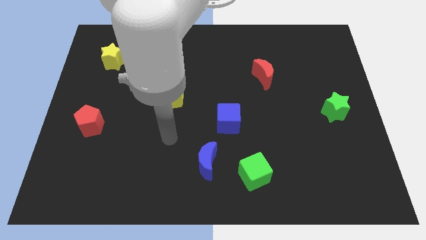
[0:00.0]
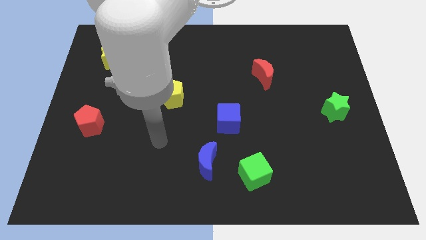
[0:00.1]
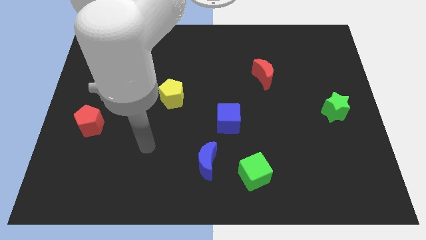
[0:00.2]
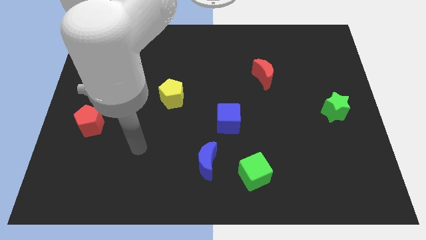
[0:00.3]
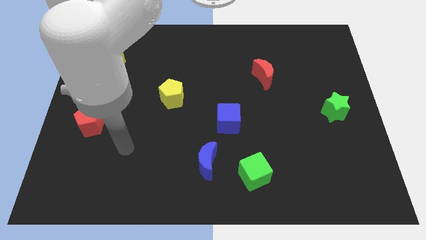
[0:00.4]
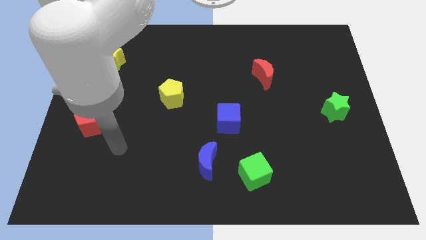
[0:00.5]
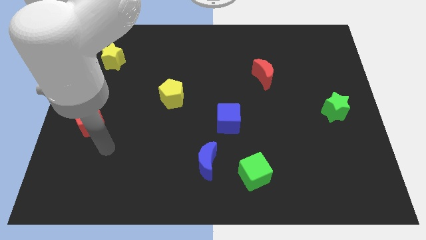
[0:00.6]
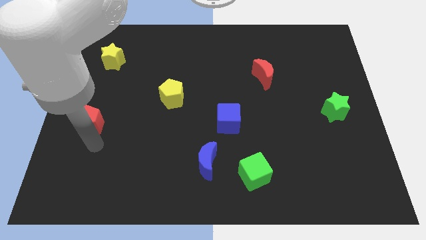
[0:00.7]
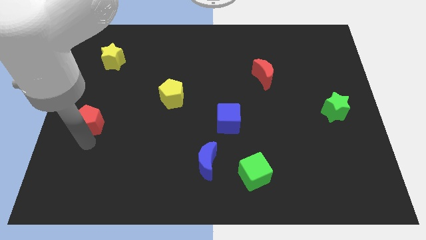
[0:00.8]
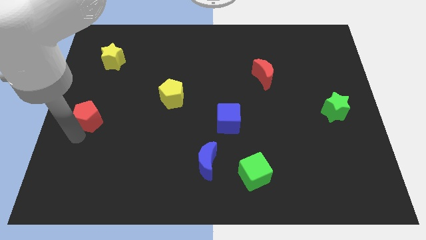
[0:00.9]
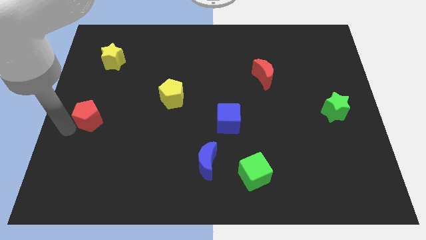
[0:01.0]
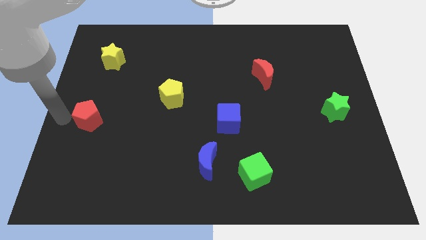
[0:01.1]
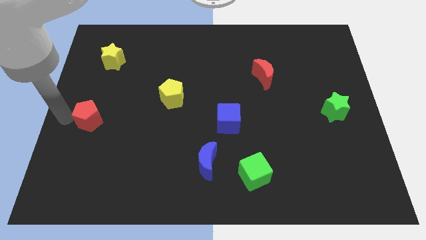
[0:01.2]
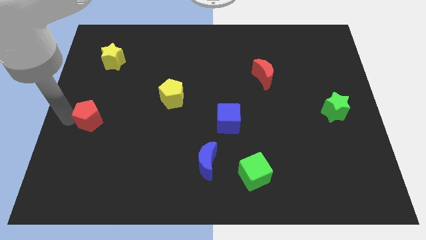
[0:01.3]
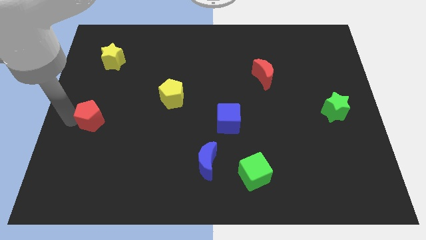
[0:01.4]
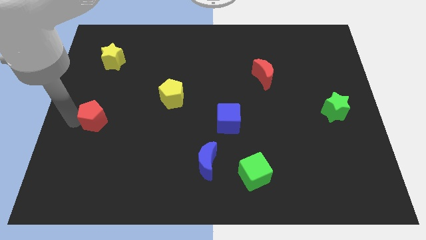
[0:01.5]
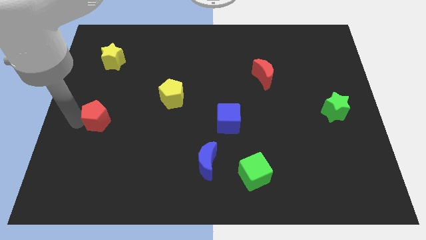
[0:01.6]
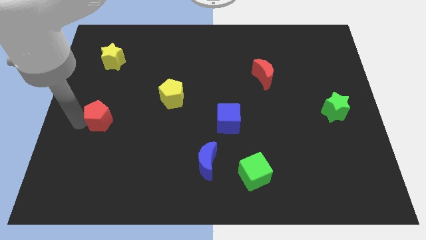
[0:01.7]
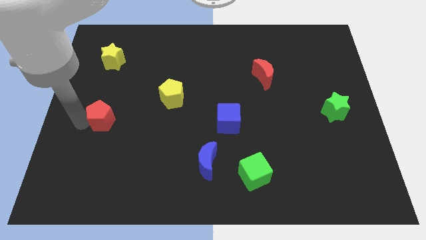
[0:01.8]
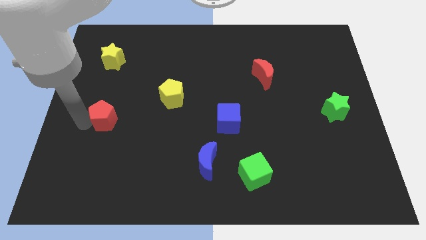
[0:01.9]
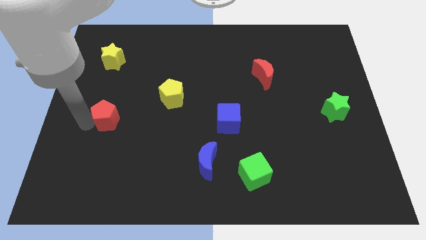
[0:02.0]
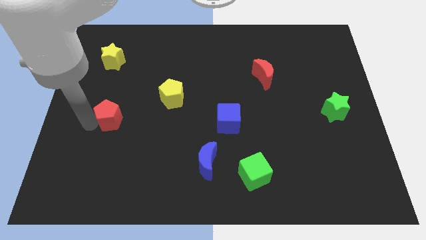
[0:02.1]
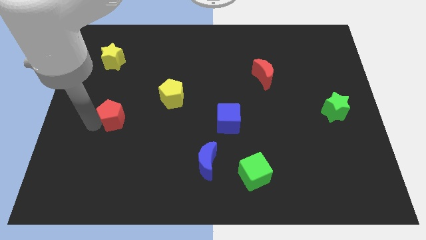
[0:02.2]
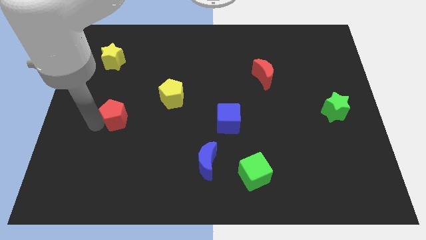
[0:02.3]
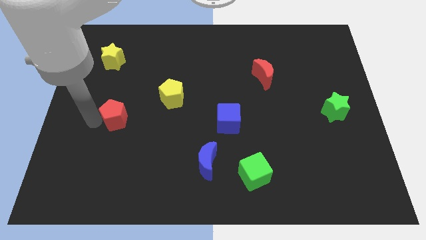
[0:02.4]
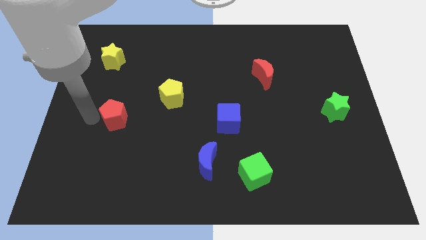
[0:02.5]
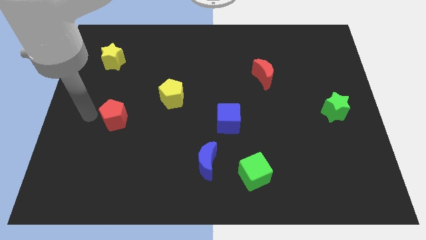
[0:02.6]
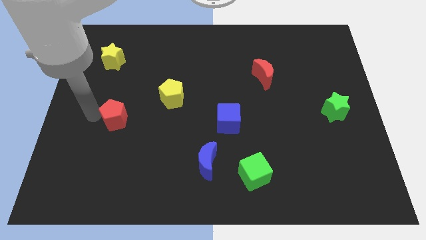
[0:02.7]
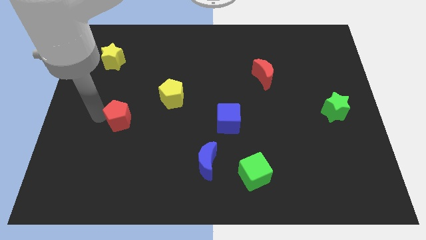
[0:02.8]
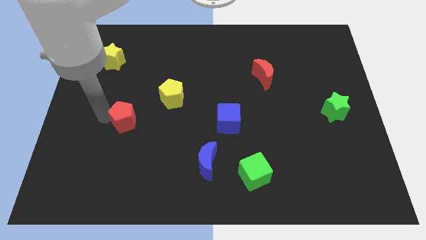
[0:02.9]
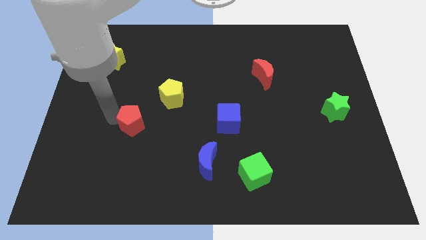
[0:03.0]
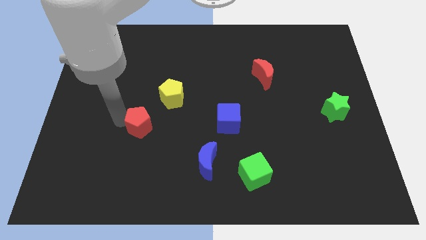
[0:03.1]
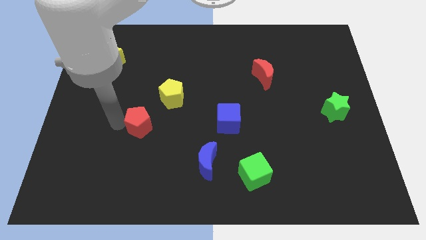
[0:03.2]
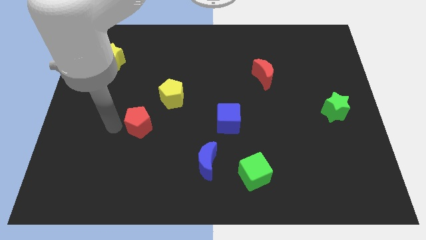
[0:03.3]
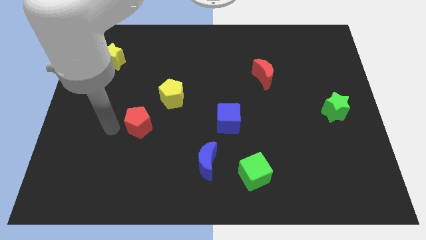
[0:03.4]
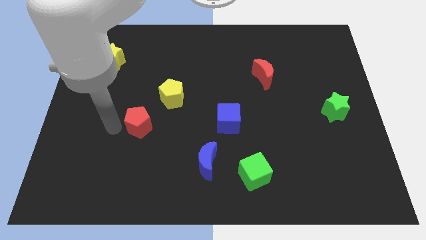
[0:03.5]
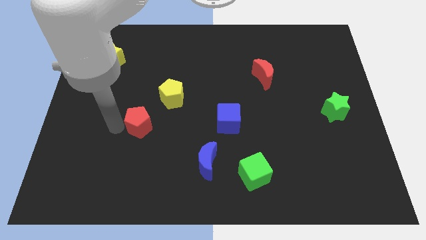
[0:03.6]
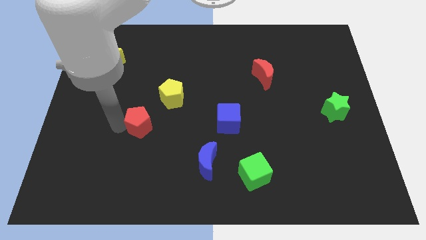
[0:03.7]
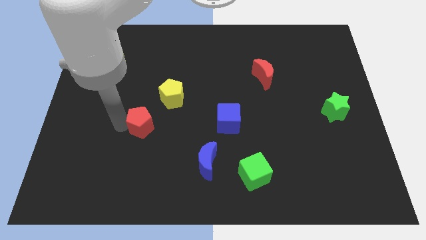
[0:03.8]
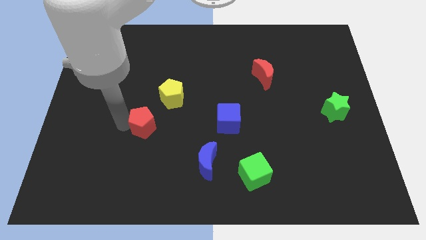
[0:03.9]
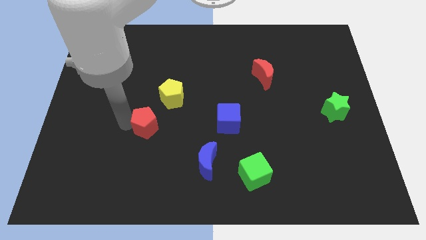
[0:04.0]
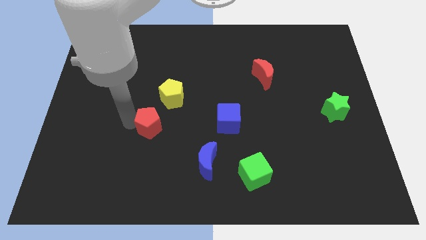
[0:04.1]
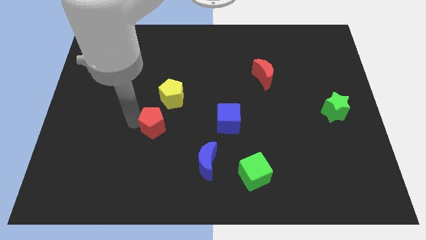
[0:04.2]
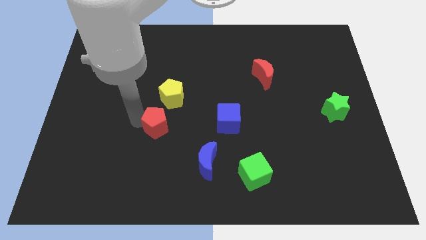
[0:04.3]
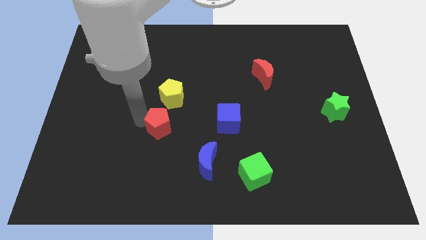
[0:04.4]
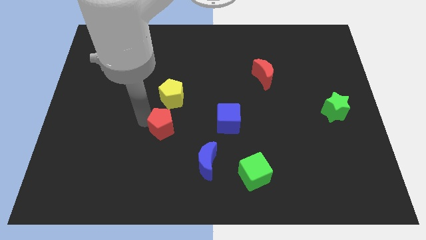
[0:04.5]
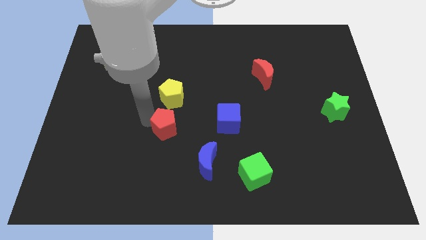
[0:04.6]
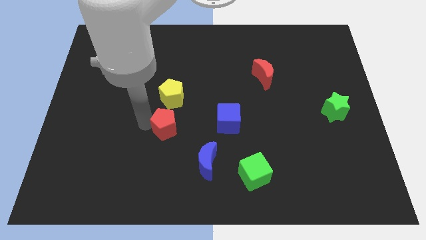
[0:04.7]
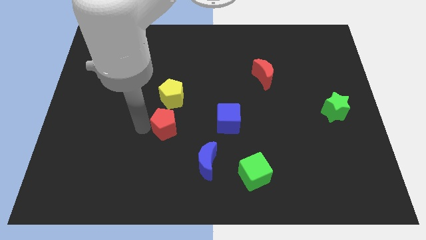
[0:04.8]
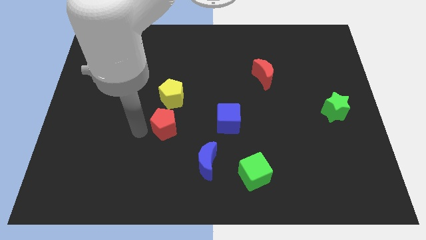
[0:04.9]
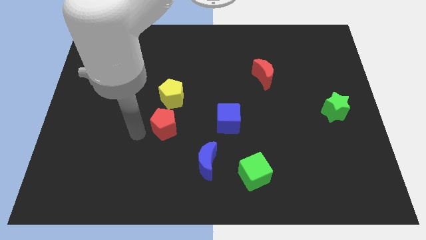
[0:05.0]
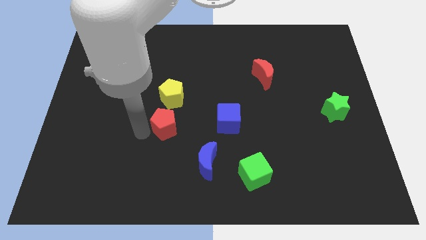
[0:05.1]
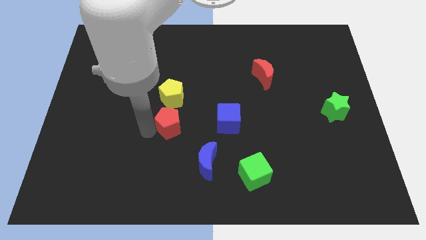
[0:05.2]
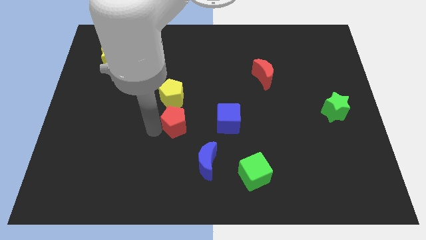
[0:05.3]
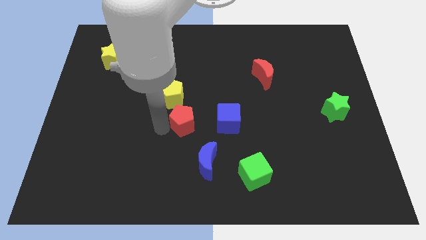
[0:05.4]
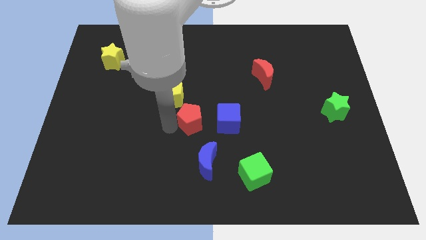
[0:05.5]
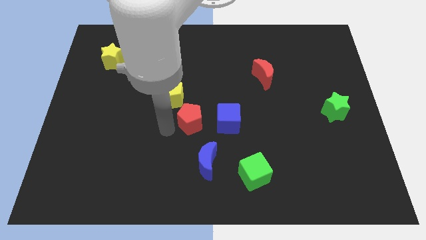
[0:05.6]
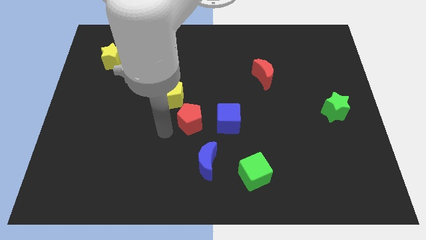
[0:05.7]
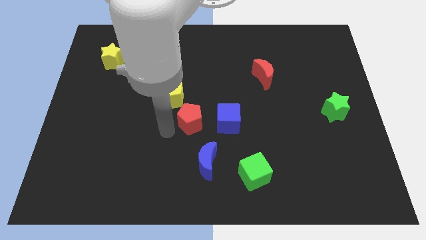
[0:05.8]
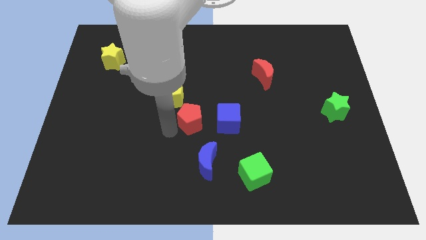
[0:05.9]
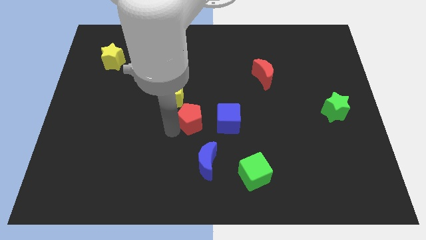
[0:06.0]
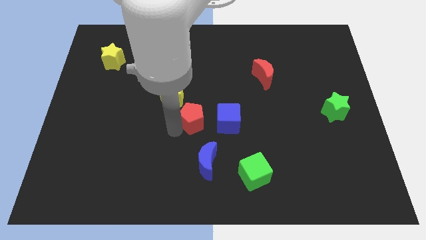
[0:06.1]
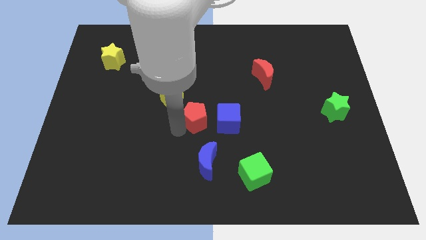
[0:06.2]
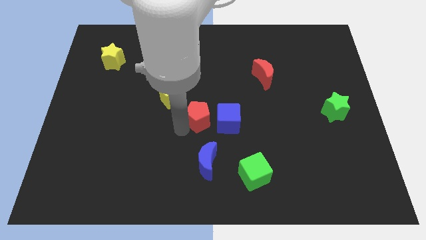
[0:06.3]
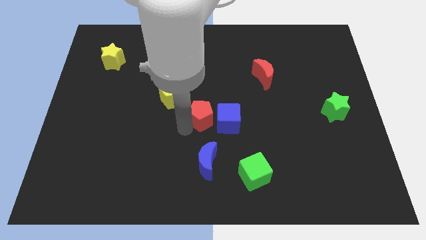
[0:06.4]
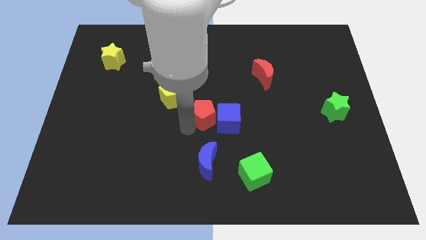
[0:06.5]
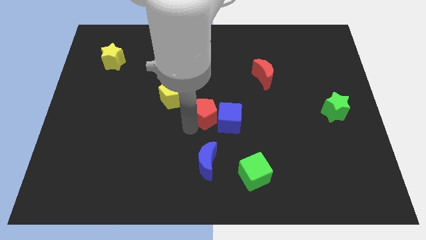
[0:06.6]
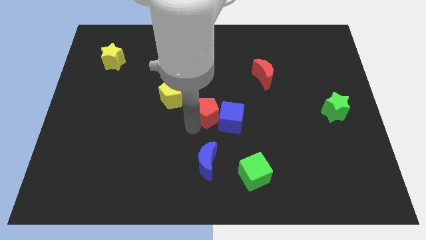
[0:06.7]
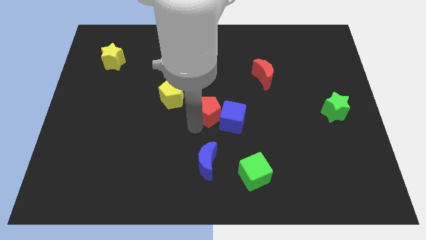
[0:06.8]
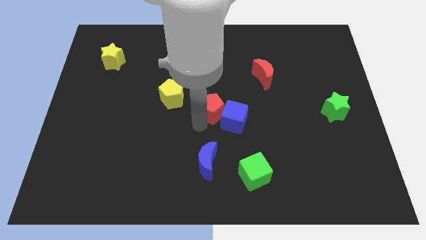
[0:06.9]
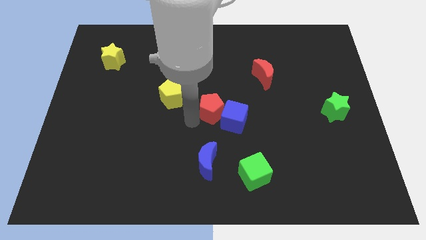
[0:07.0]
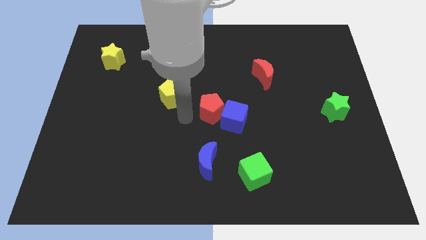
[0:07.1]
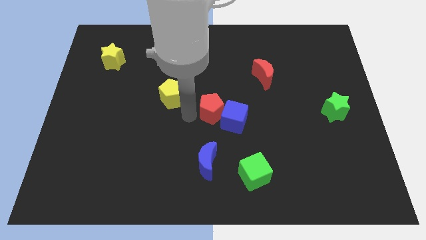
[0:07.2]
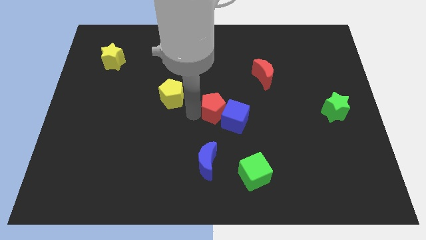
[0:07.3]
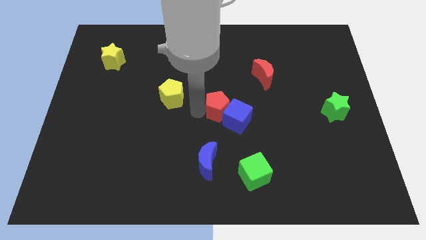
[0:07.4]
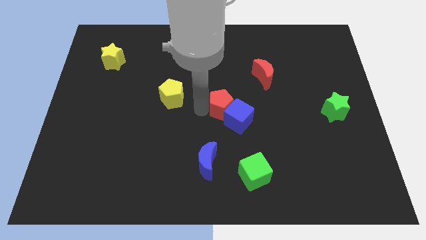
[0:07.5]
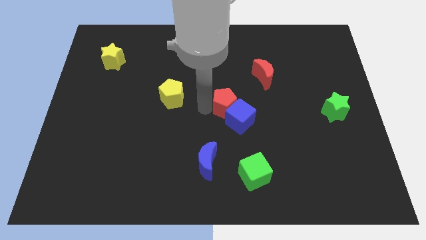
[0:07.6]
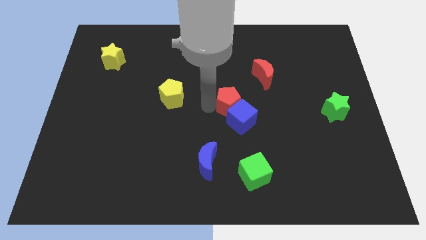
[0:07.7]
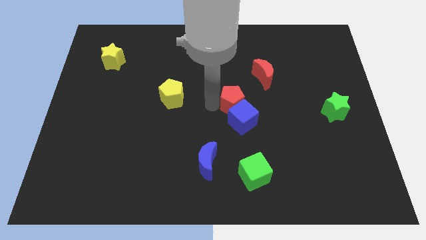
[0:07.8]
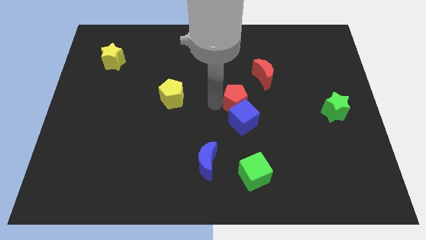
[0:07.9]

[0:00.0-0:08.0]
put the red pentagon to the top right side of the blue cube
